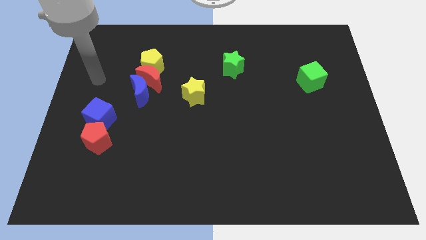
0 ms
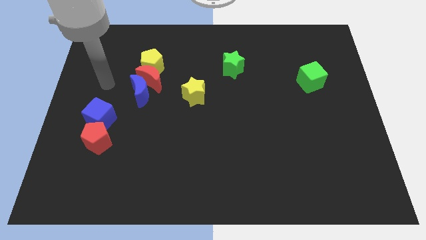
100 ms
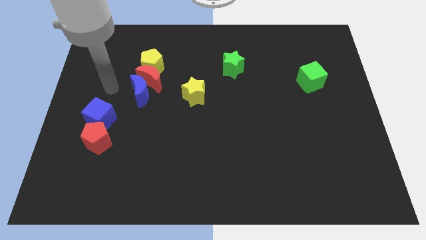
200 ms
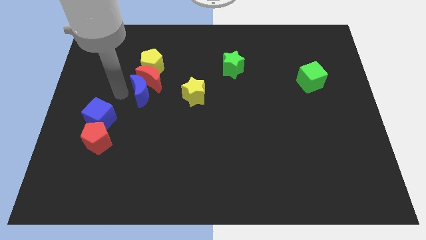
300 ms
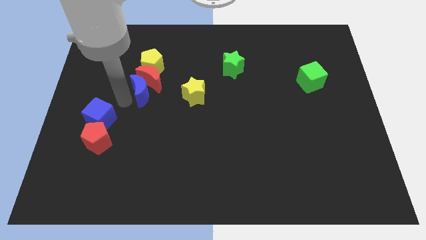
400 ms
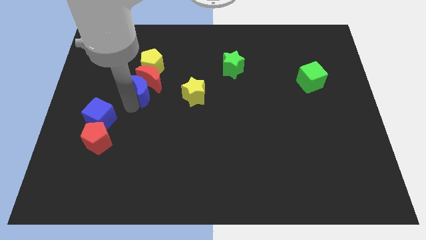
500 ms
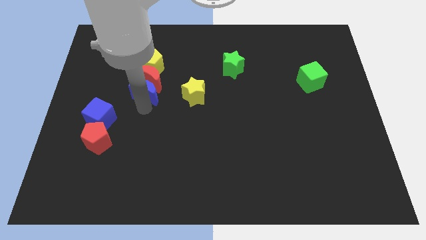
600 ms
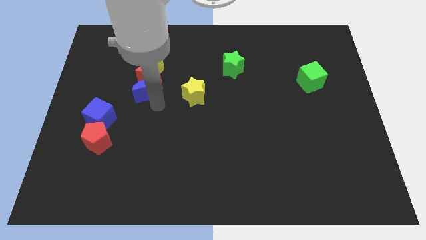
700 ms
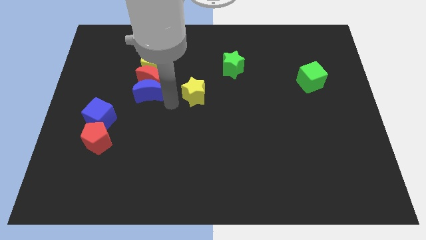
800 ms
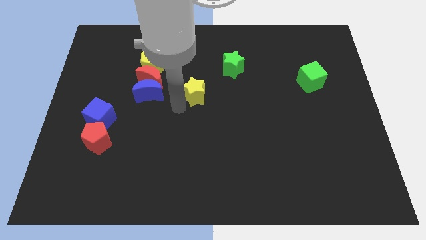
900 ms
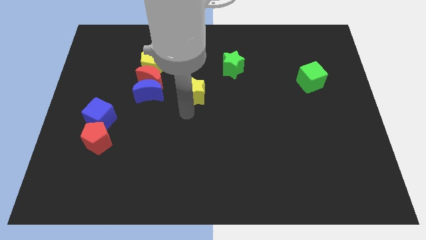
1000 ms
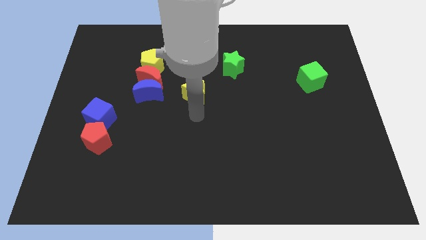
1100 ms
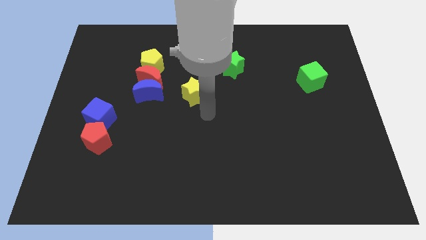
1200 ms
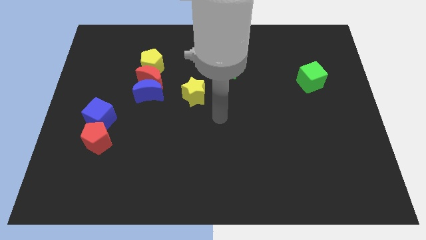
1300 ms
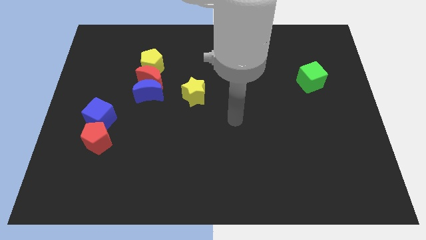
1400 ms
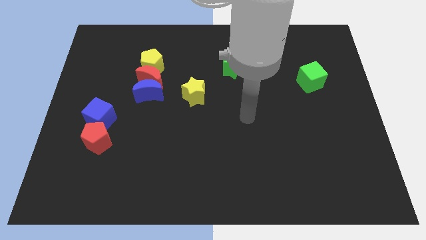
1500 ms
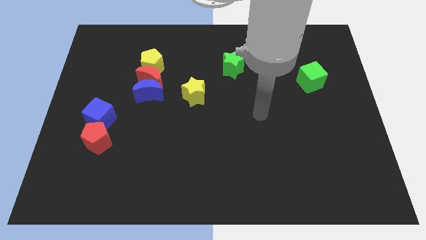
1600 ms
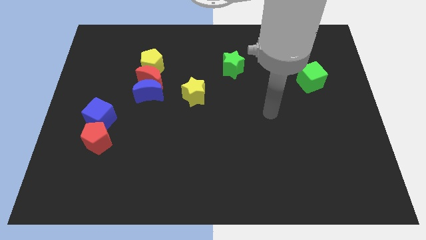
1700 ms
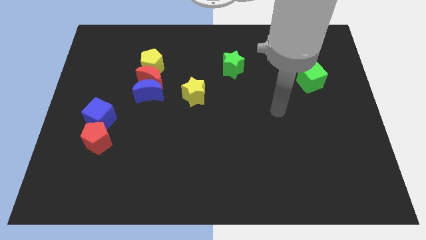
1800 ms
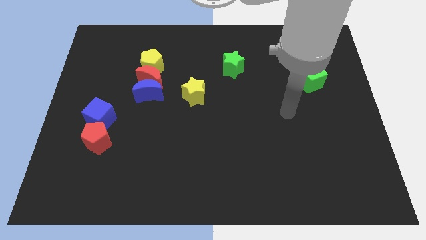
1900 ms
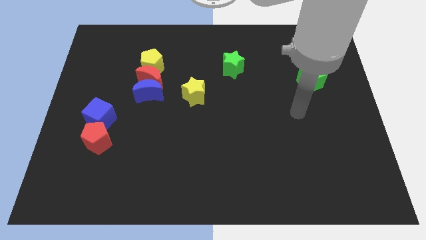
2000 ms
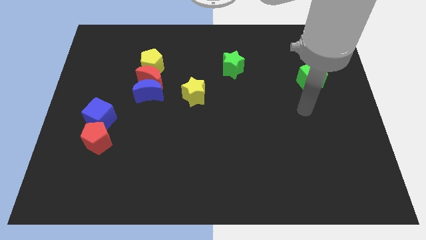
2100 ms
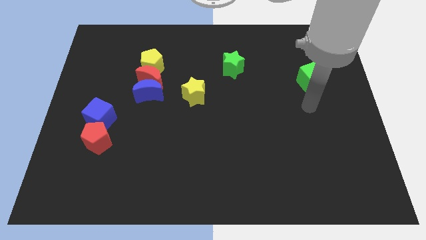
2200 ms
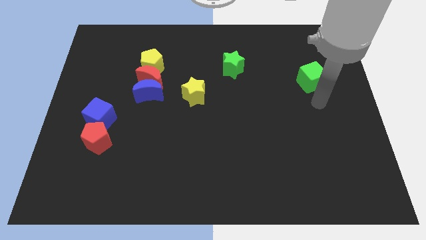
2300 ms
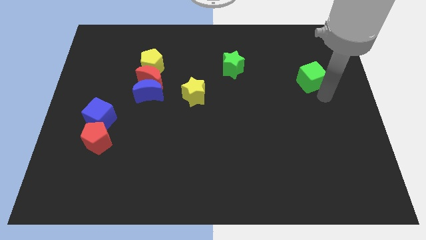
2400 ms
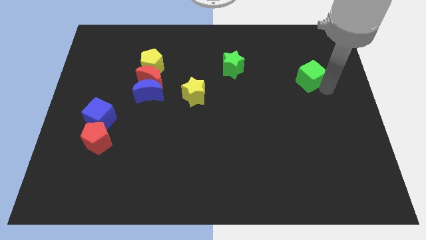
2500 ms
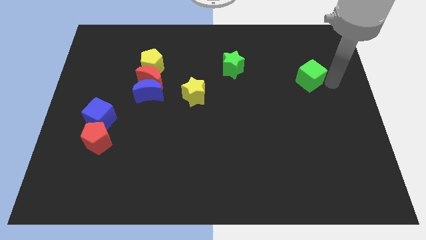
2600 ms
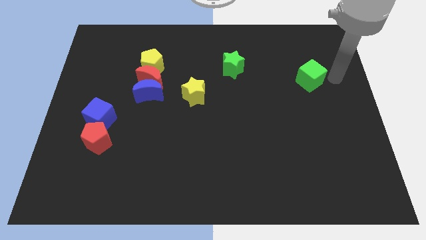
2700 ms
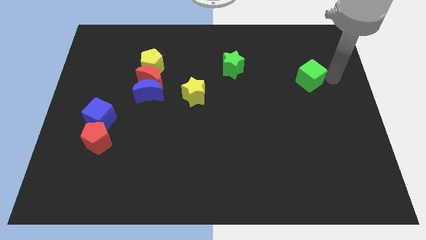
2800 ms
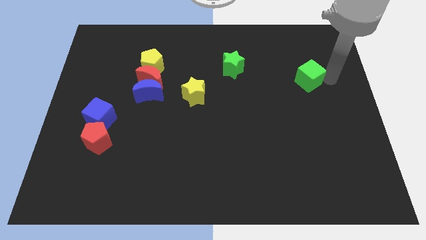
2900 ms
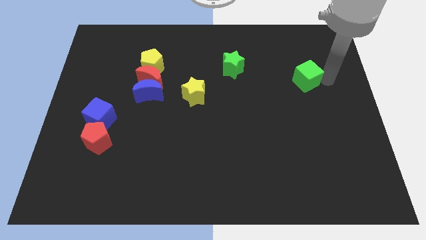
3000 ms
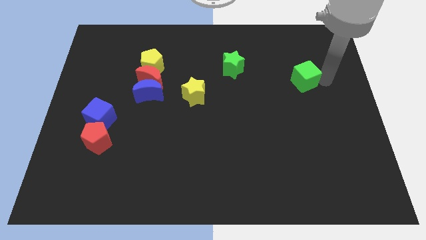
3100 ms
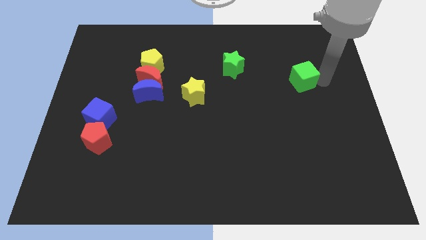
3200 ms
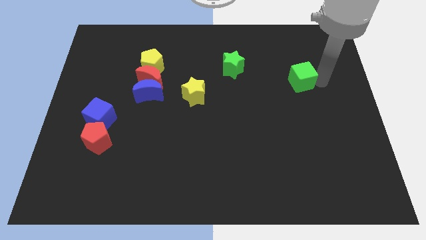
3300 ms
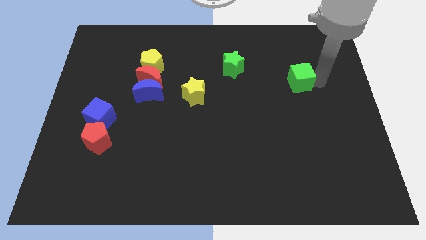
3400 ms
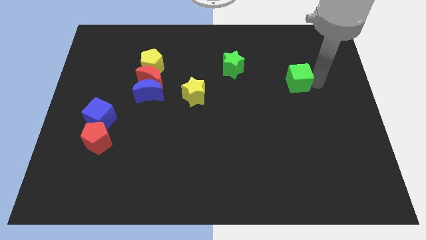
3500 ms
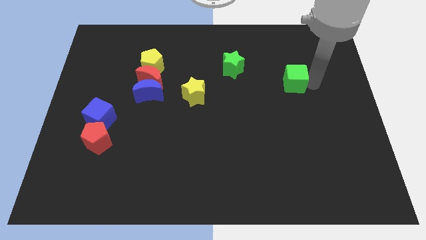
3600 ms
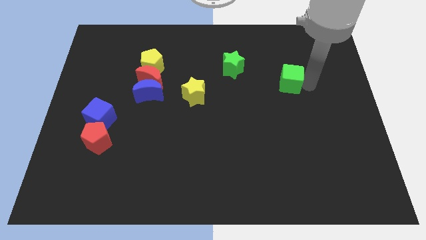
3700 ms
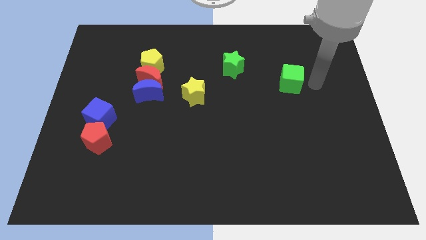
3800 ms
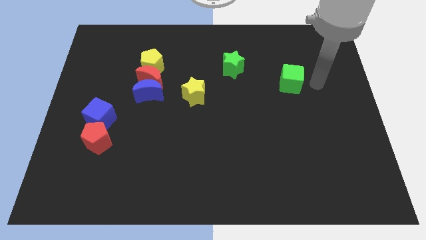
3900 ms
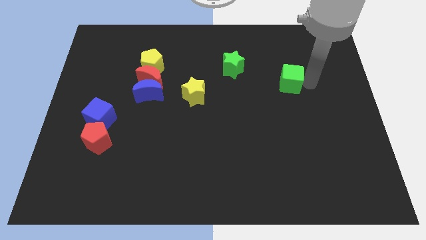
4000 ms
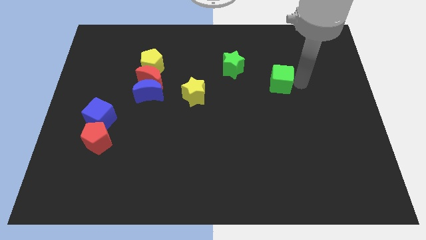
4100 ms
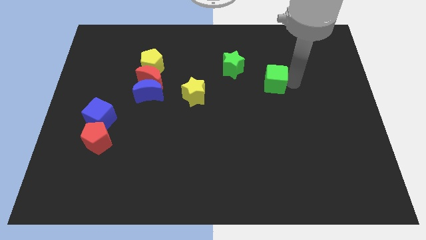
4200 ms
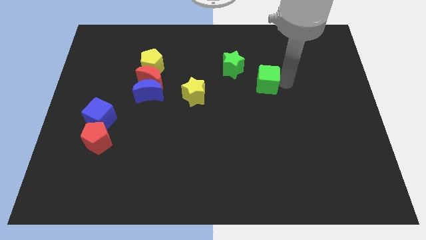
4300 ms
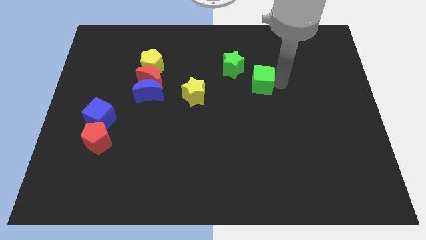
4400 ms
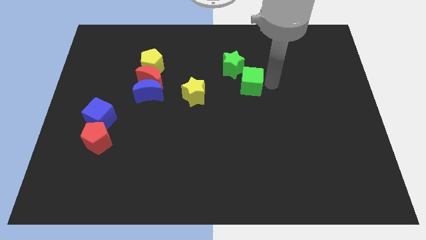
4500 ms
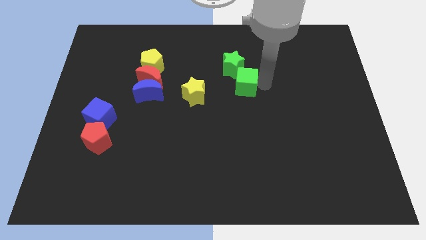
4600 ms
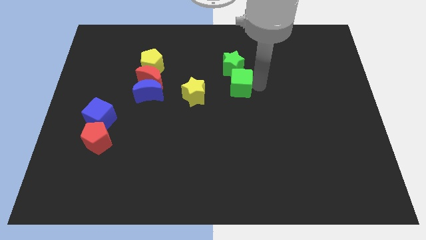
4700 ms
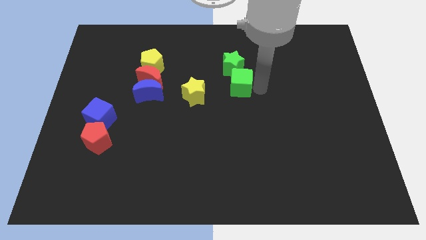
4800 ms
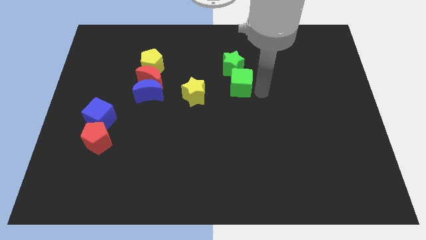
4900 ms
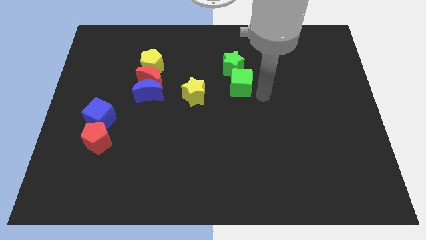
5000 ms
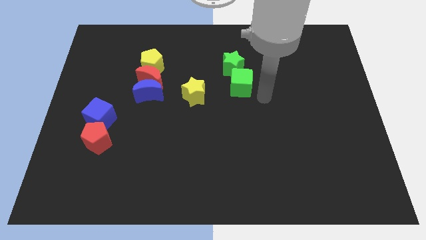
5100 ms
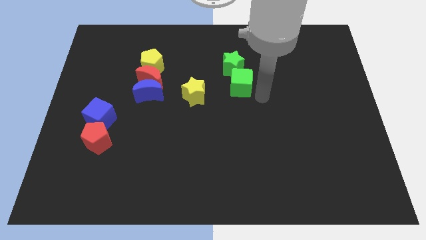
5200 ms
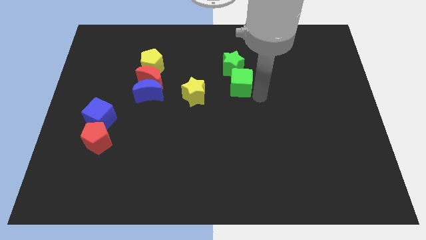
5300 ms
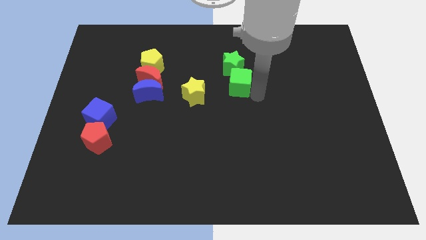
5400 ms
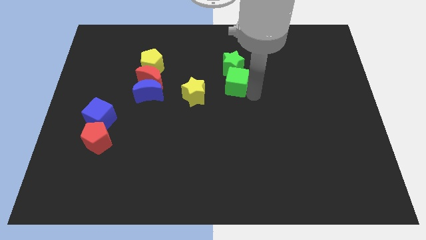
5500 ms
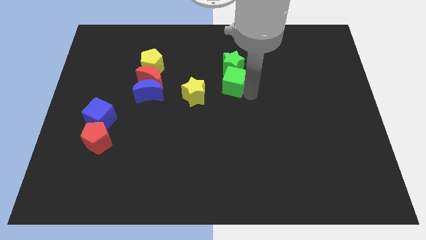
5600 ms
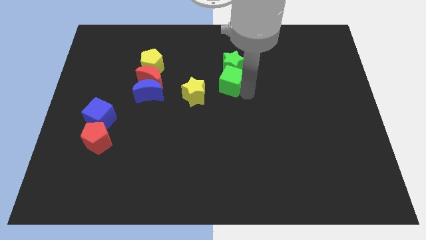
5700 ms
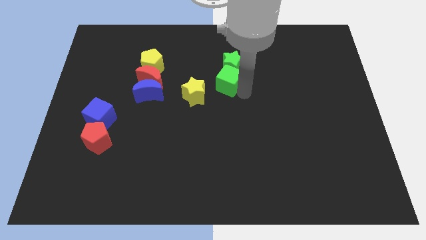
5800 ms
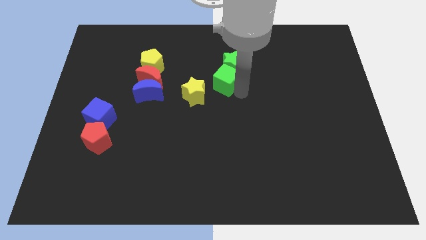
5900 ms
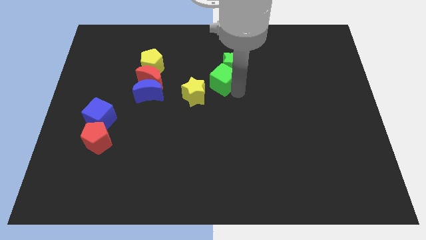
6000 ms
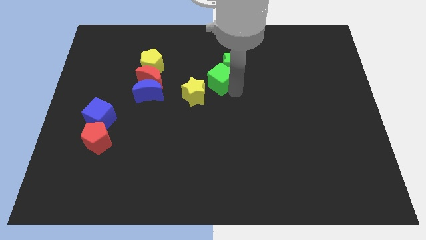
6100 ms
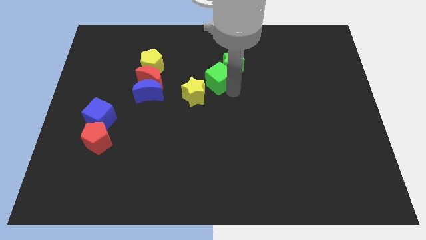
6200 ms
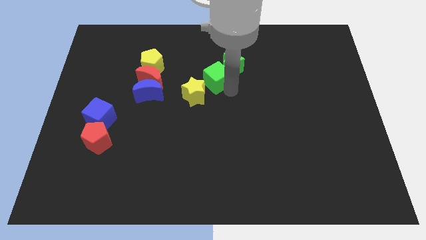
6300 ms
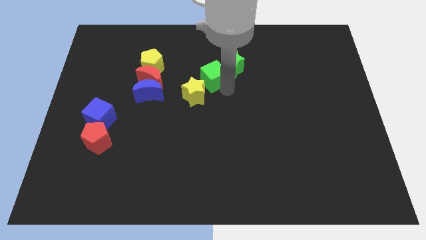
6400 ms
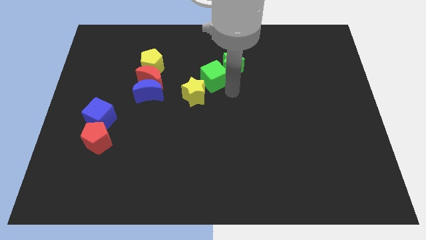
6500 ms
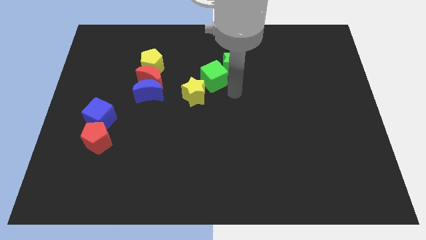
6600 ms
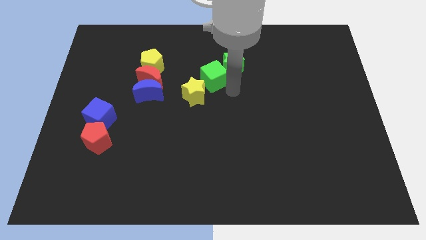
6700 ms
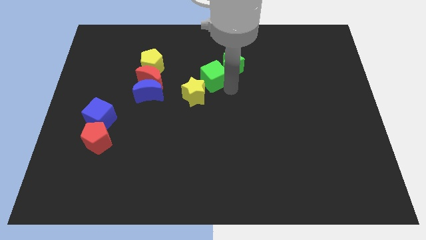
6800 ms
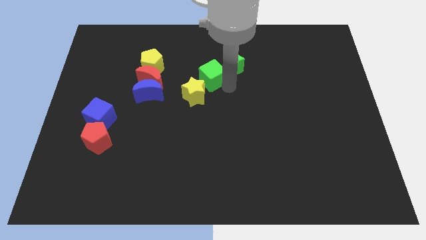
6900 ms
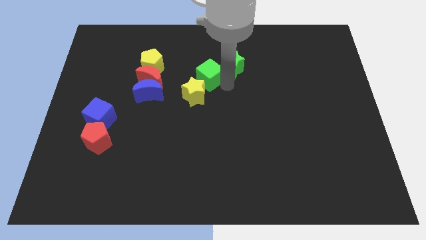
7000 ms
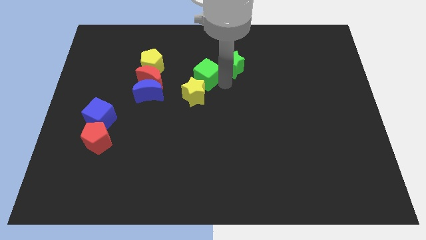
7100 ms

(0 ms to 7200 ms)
put the green cube to the right side of the yellow pentagon
